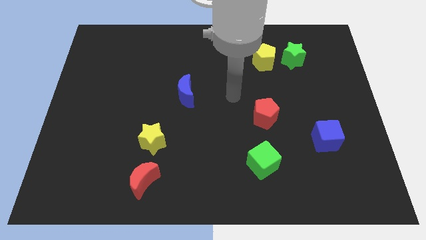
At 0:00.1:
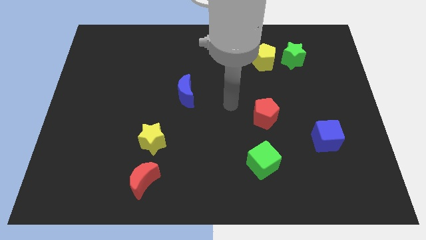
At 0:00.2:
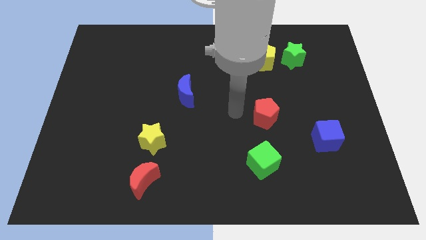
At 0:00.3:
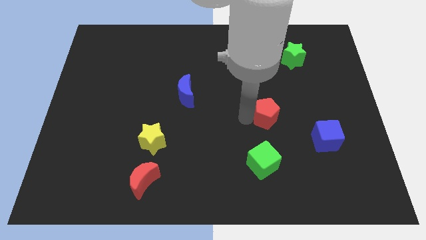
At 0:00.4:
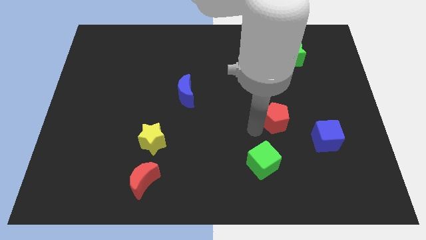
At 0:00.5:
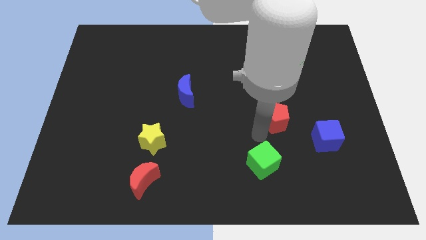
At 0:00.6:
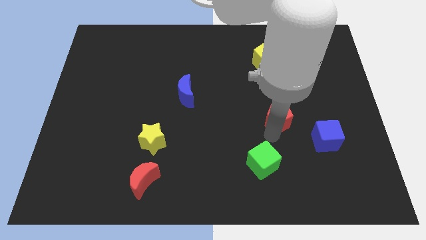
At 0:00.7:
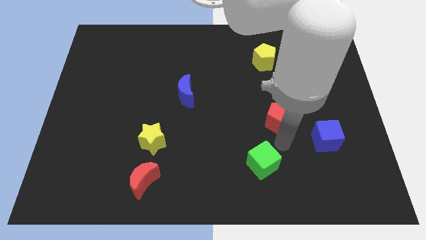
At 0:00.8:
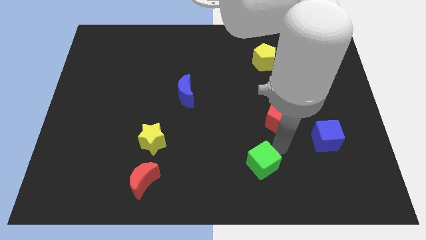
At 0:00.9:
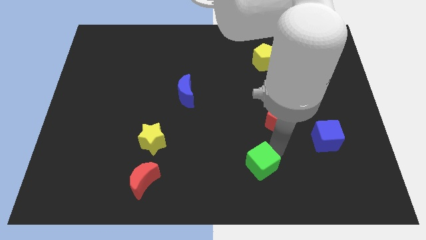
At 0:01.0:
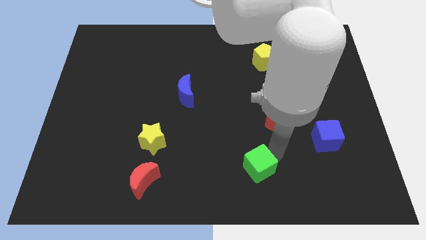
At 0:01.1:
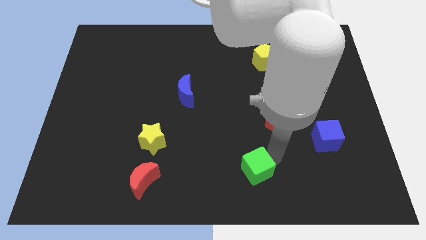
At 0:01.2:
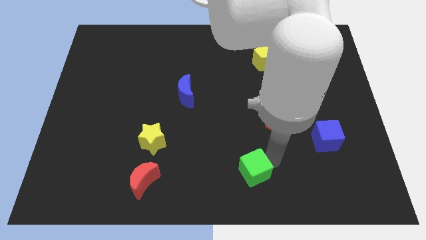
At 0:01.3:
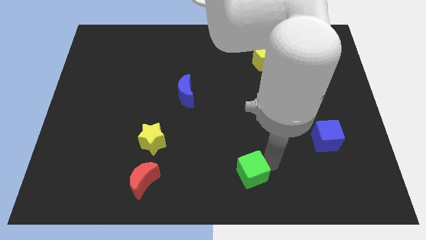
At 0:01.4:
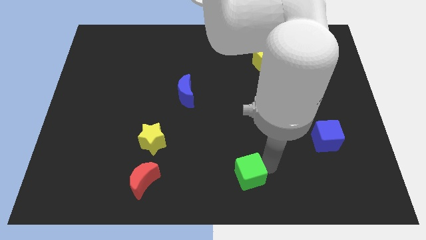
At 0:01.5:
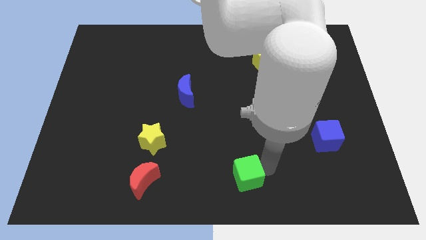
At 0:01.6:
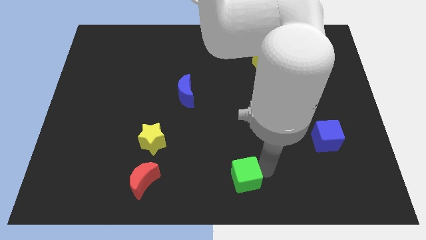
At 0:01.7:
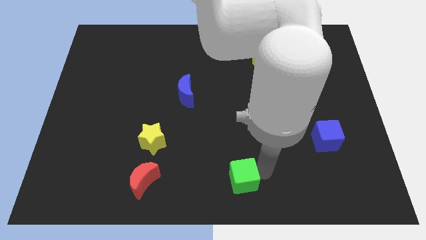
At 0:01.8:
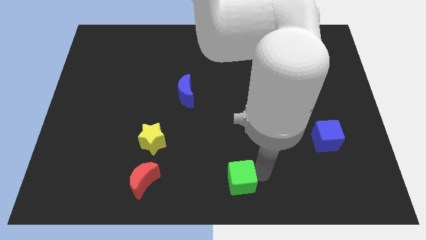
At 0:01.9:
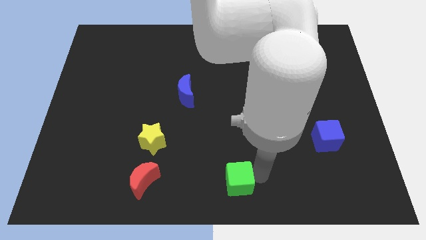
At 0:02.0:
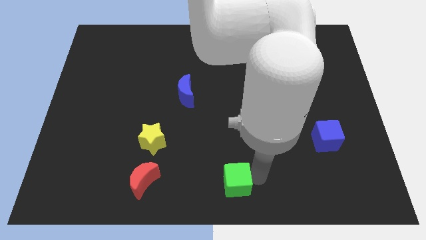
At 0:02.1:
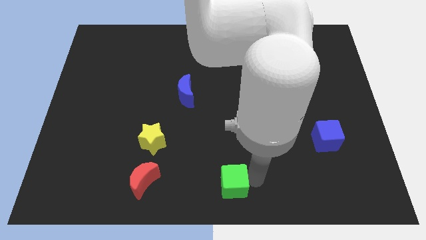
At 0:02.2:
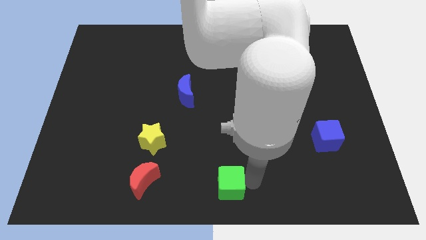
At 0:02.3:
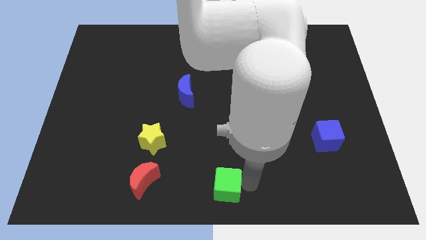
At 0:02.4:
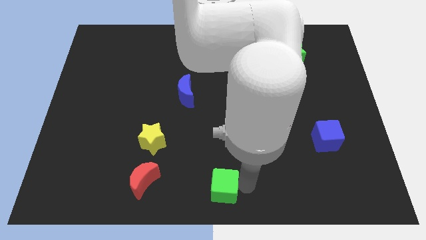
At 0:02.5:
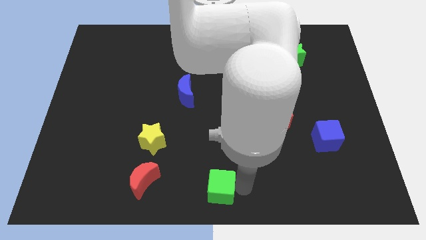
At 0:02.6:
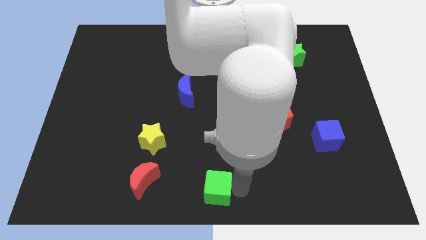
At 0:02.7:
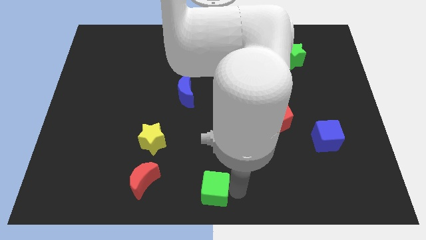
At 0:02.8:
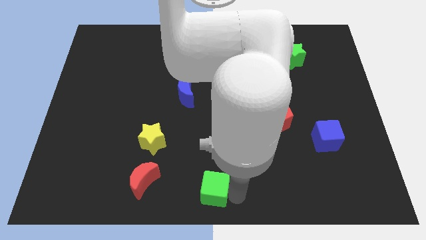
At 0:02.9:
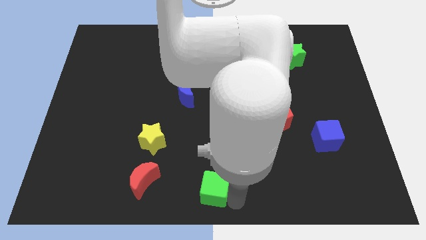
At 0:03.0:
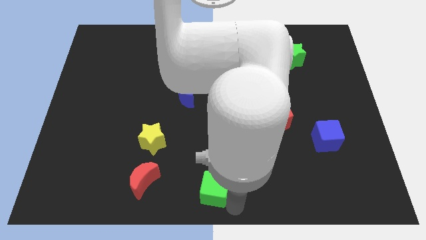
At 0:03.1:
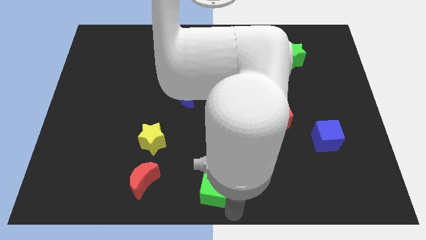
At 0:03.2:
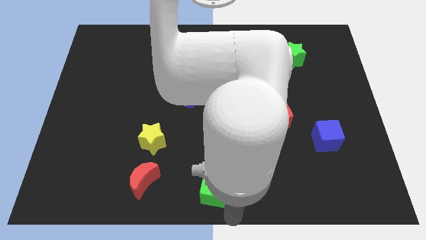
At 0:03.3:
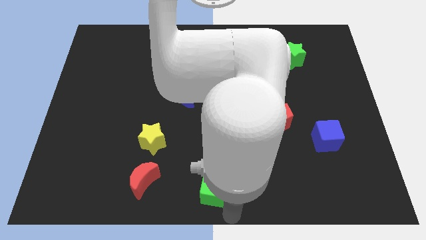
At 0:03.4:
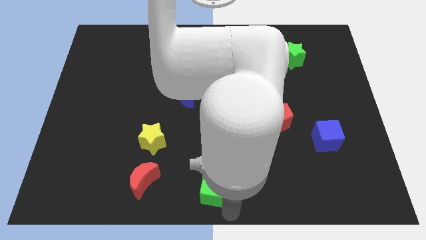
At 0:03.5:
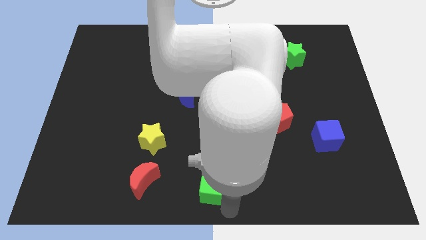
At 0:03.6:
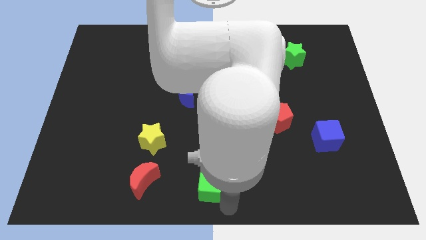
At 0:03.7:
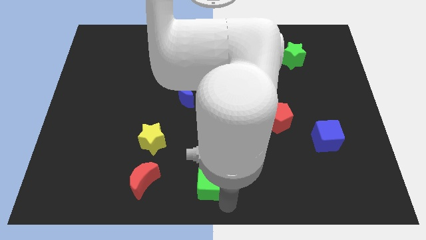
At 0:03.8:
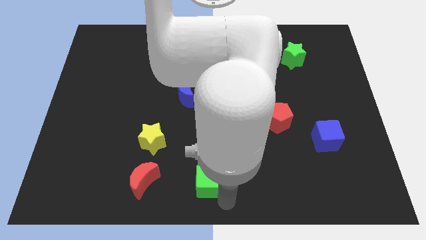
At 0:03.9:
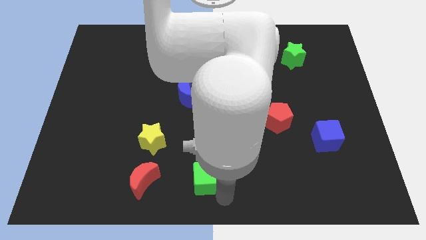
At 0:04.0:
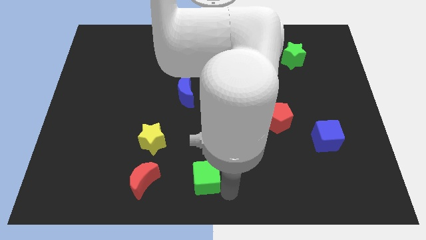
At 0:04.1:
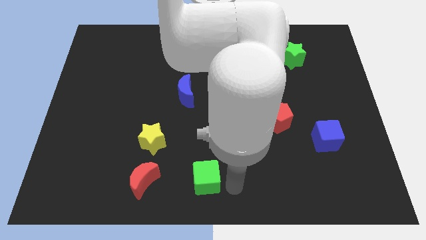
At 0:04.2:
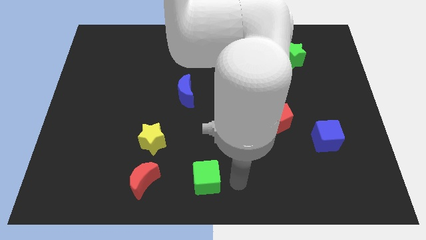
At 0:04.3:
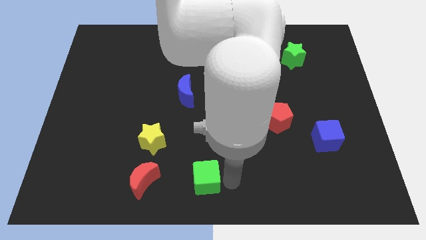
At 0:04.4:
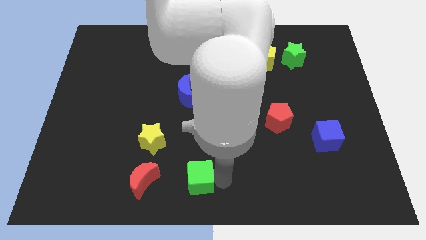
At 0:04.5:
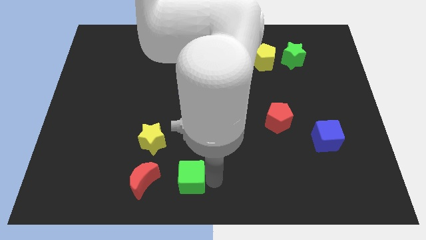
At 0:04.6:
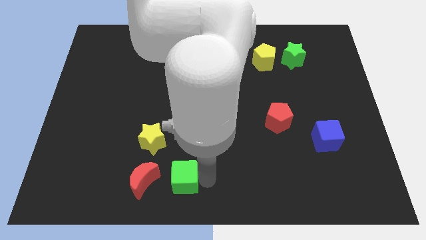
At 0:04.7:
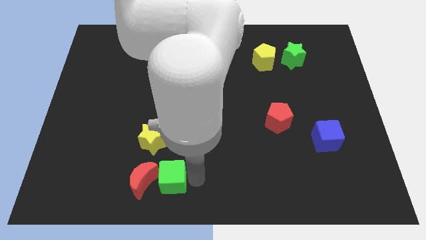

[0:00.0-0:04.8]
move the green cube next to the red moon

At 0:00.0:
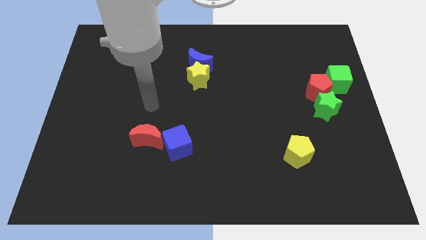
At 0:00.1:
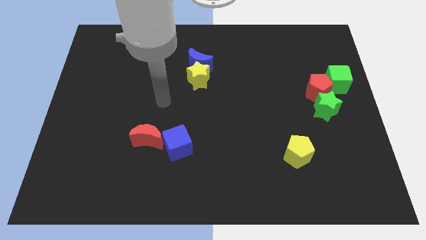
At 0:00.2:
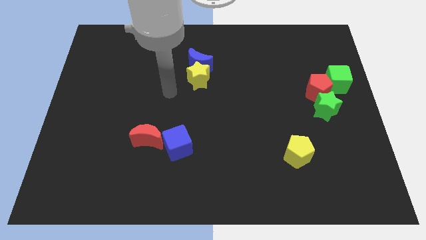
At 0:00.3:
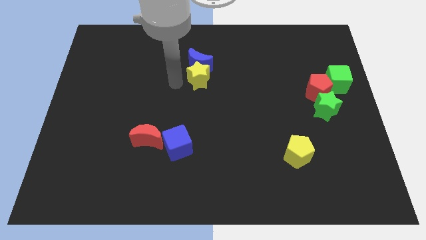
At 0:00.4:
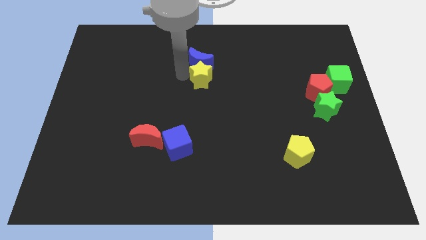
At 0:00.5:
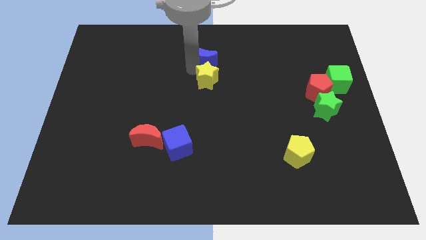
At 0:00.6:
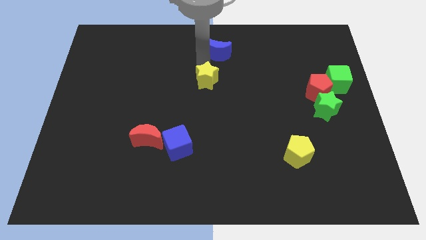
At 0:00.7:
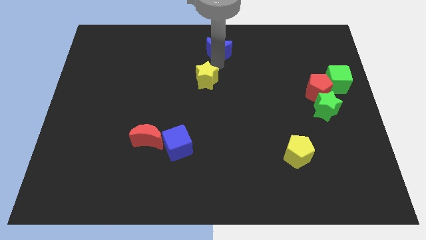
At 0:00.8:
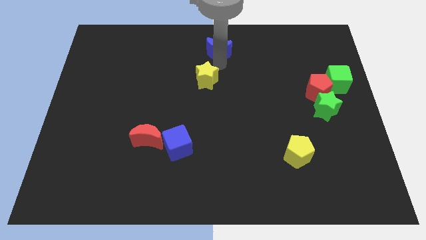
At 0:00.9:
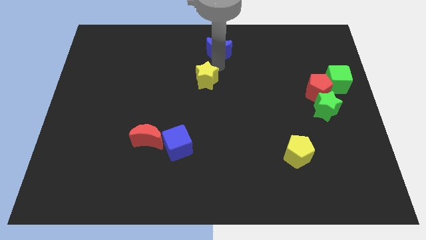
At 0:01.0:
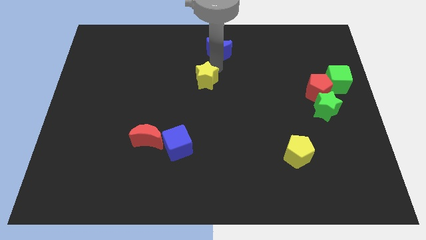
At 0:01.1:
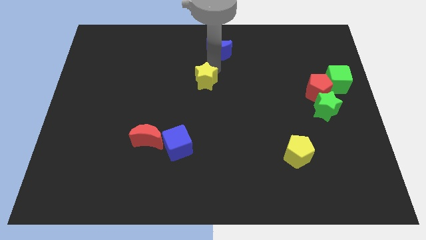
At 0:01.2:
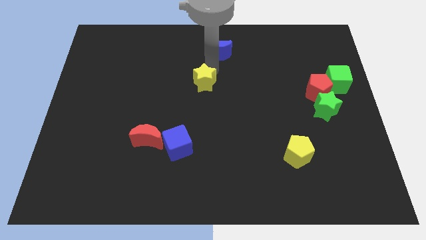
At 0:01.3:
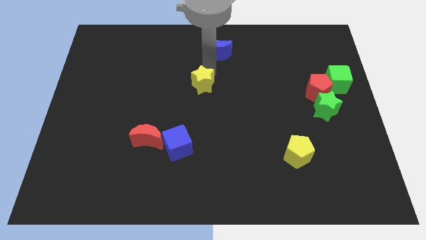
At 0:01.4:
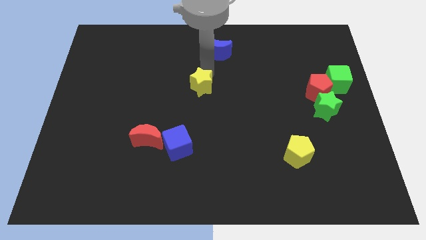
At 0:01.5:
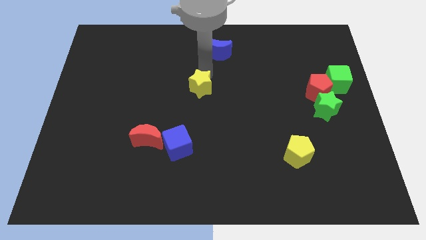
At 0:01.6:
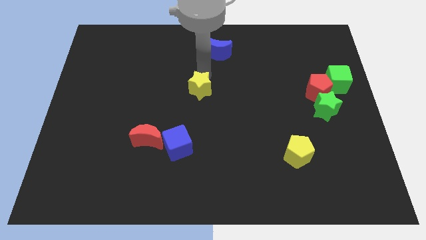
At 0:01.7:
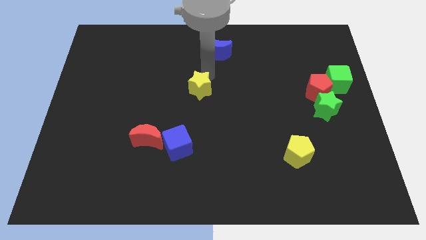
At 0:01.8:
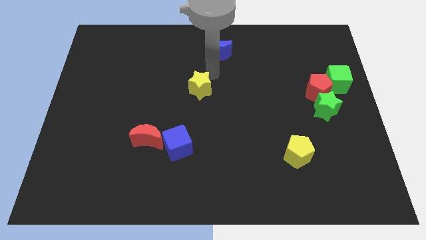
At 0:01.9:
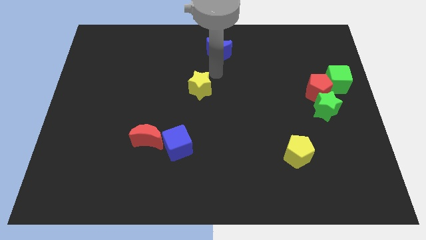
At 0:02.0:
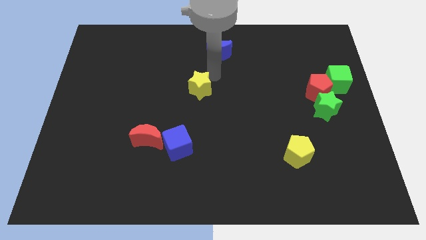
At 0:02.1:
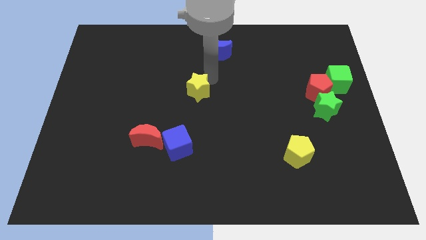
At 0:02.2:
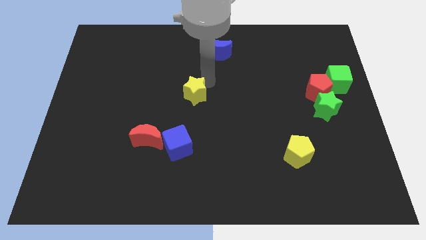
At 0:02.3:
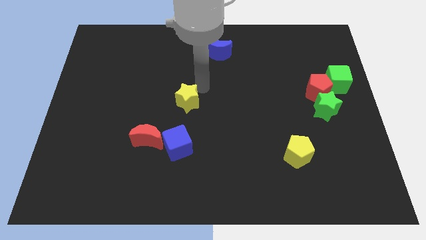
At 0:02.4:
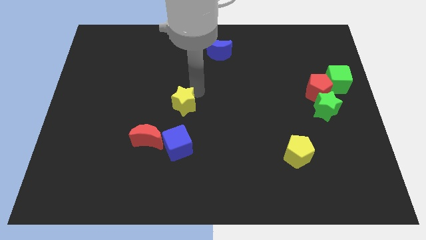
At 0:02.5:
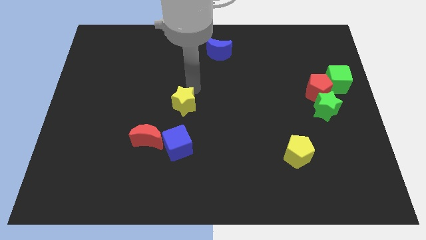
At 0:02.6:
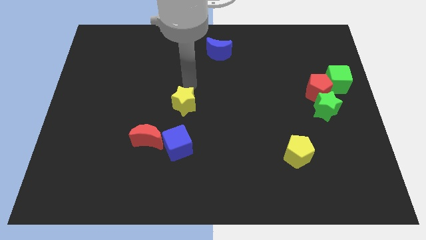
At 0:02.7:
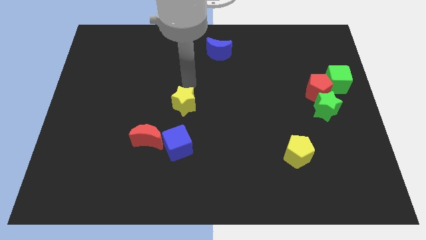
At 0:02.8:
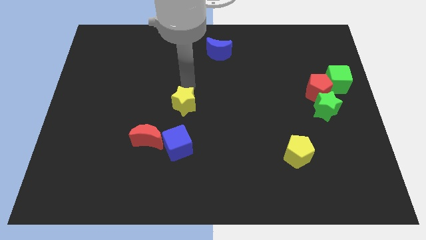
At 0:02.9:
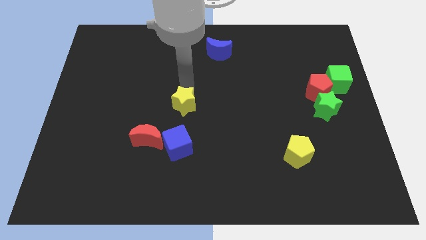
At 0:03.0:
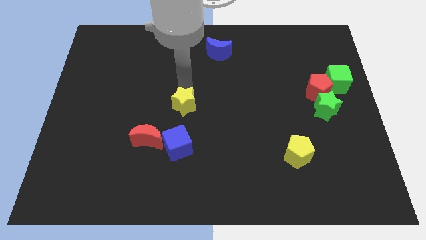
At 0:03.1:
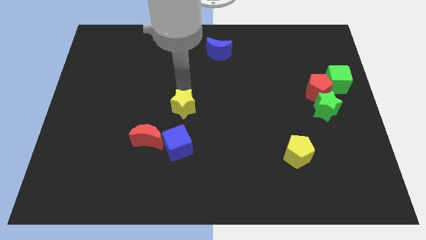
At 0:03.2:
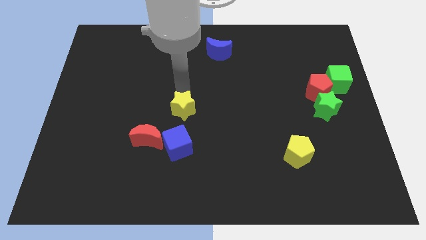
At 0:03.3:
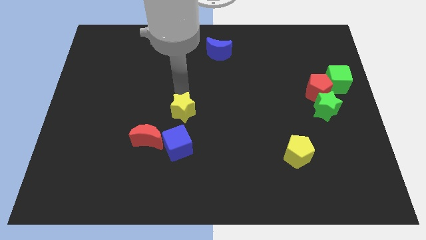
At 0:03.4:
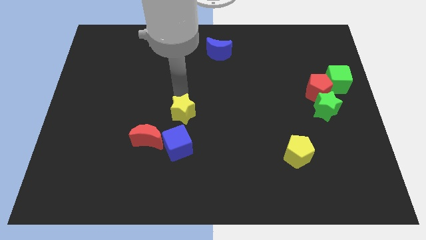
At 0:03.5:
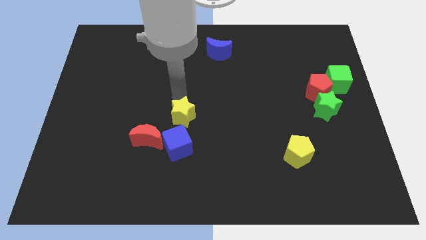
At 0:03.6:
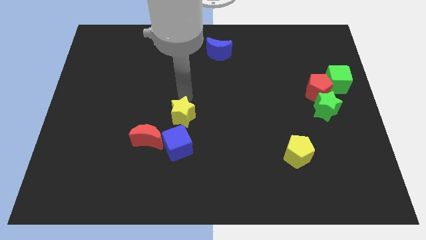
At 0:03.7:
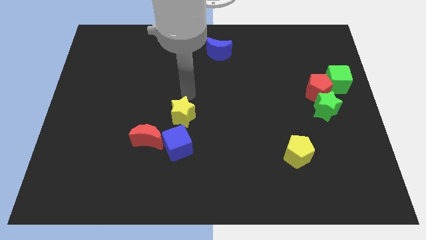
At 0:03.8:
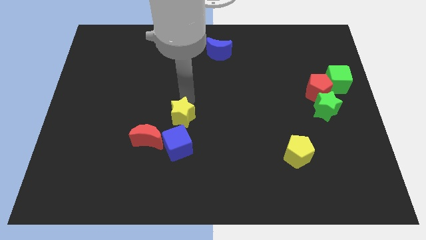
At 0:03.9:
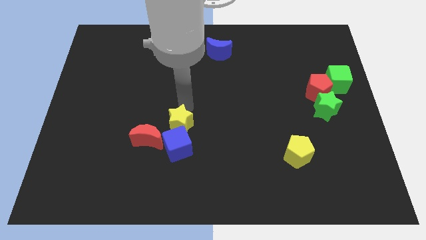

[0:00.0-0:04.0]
put the yellow star next to the blue cube
